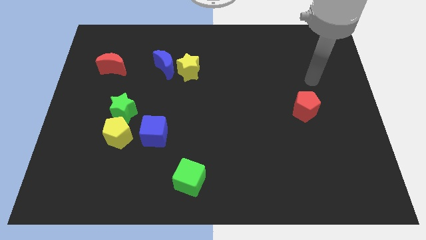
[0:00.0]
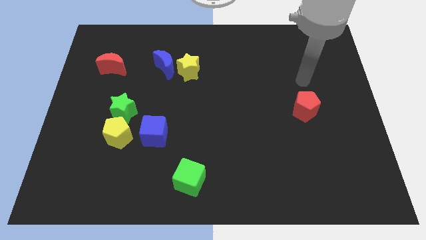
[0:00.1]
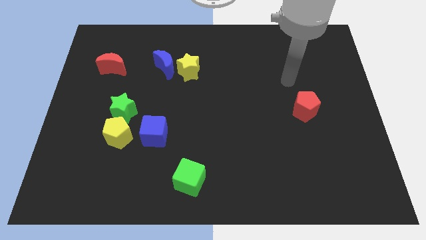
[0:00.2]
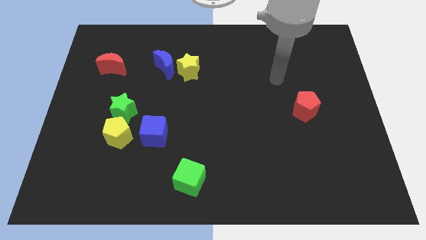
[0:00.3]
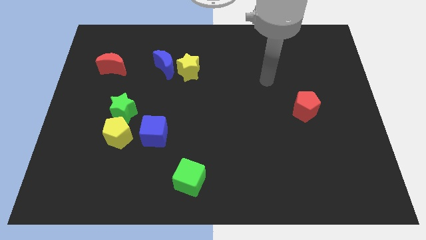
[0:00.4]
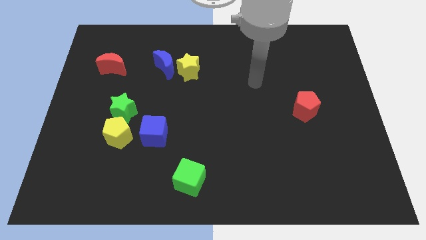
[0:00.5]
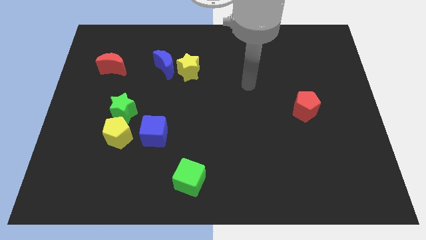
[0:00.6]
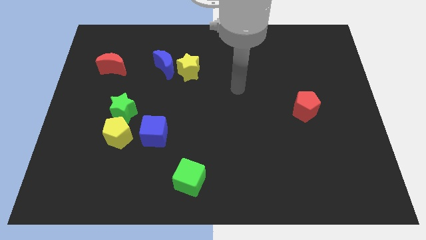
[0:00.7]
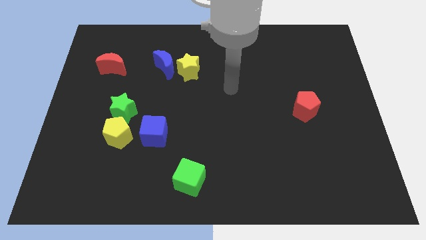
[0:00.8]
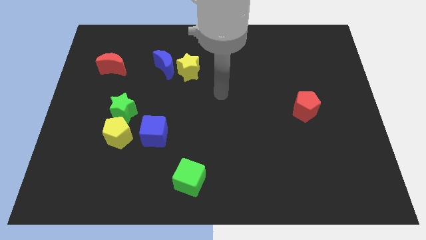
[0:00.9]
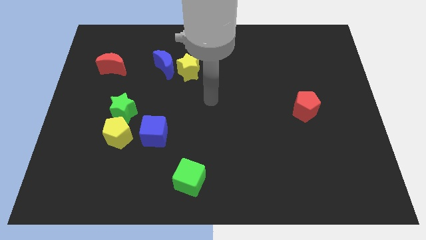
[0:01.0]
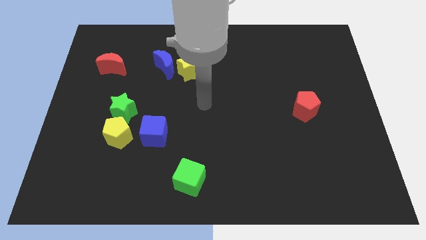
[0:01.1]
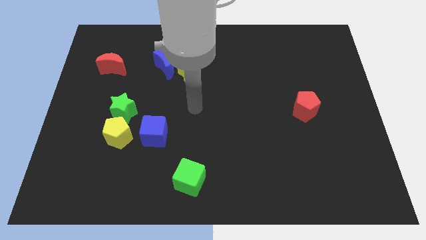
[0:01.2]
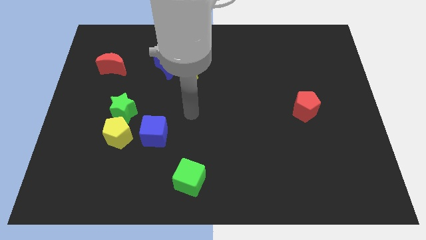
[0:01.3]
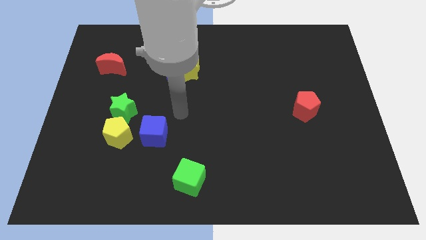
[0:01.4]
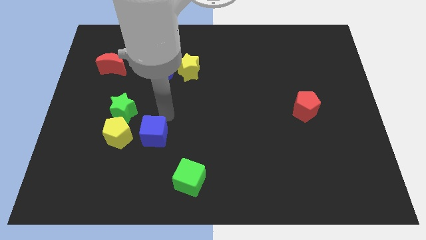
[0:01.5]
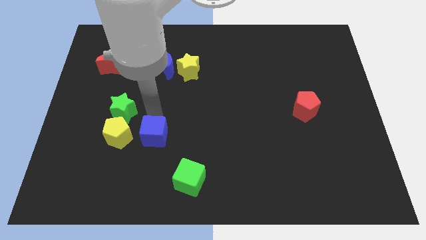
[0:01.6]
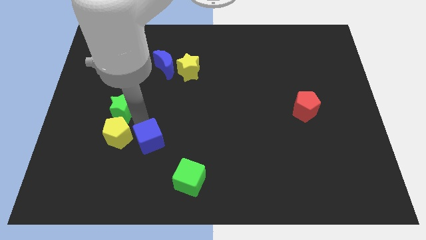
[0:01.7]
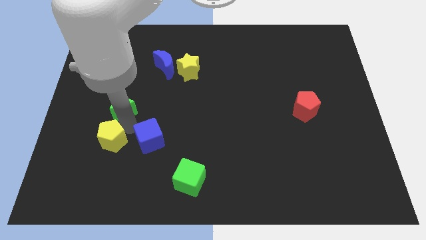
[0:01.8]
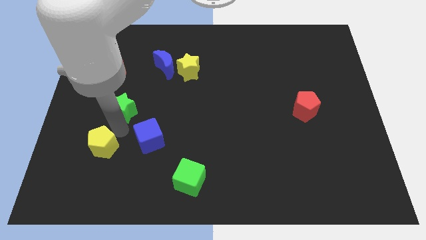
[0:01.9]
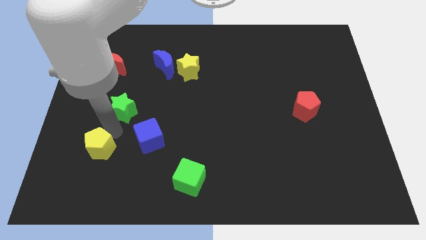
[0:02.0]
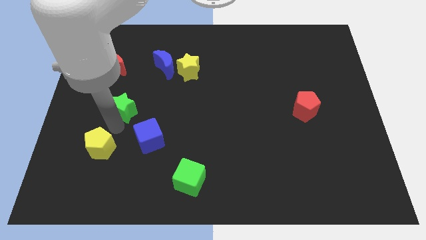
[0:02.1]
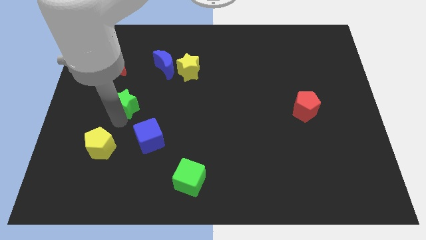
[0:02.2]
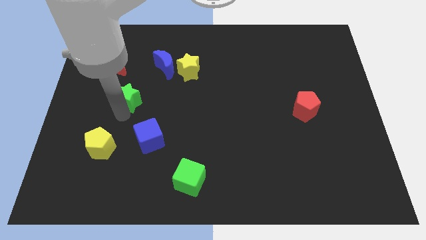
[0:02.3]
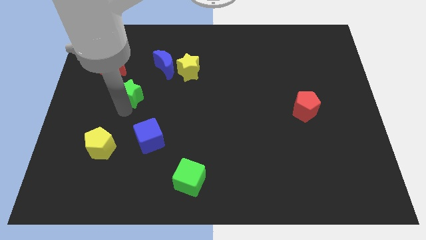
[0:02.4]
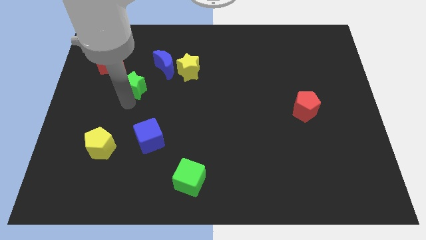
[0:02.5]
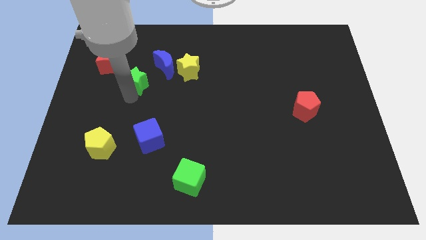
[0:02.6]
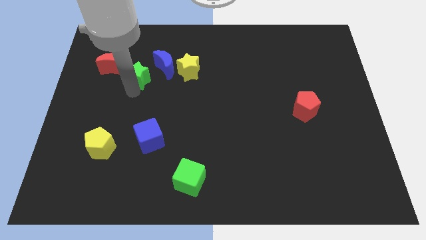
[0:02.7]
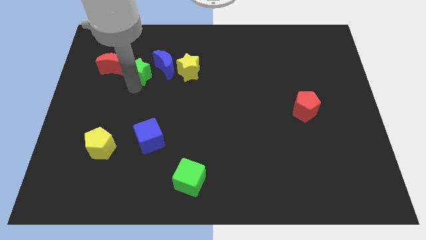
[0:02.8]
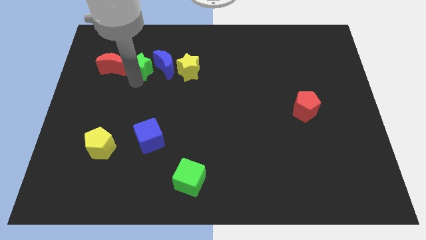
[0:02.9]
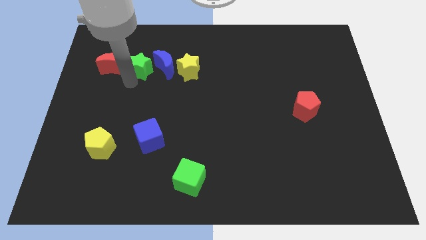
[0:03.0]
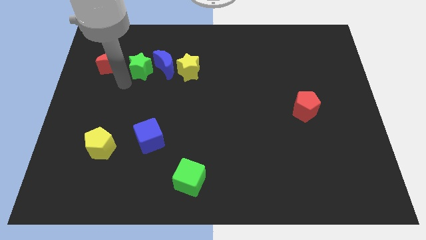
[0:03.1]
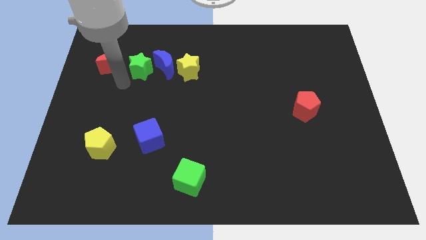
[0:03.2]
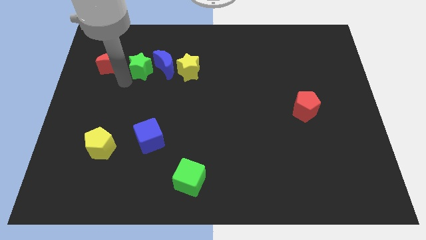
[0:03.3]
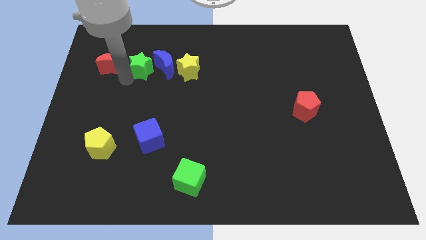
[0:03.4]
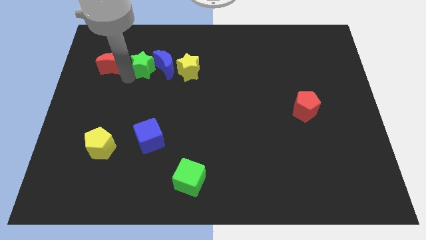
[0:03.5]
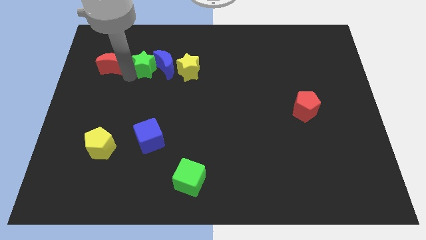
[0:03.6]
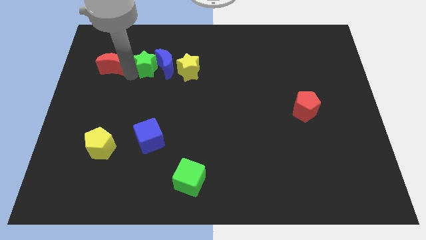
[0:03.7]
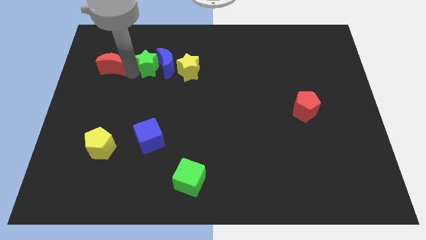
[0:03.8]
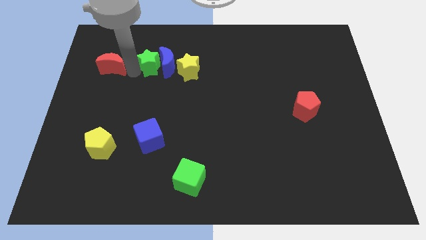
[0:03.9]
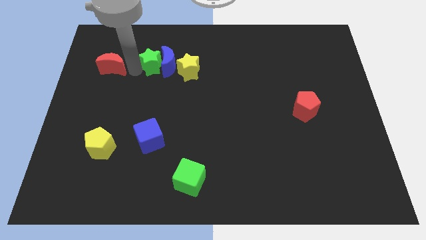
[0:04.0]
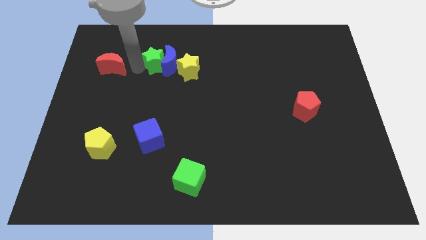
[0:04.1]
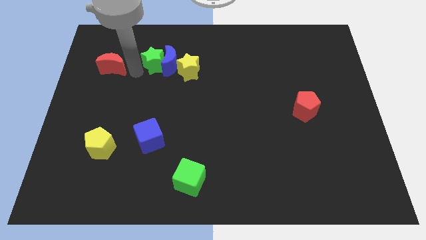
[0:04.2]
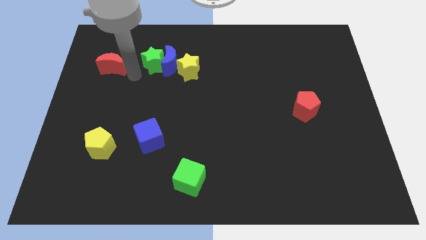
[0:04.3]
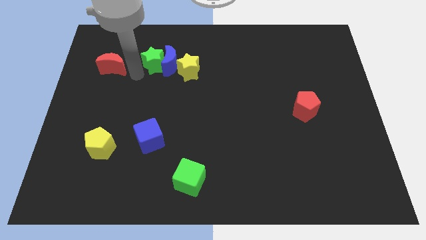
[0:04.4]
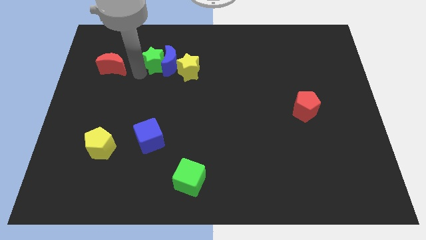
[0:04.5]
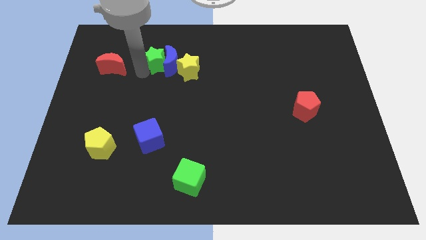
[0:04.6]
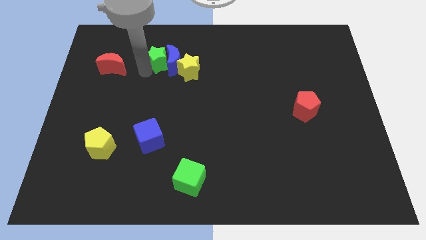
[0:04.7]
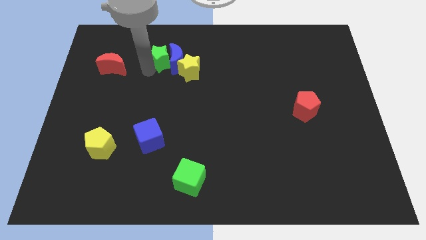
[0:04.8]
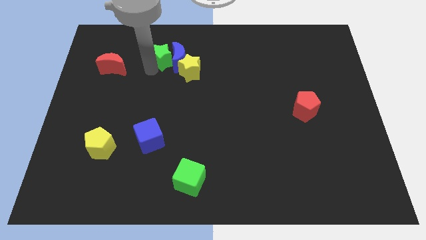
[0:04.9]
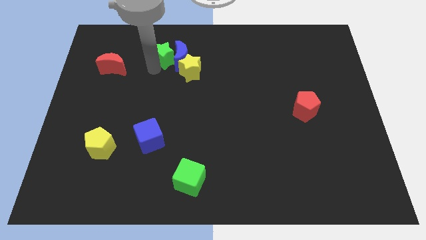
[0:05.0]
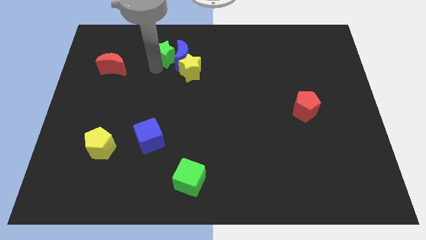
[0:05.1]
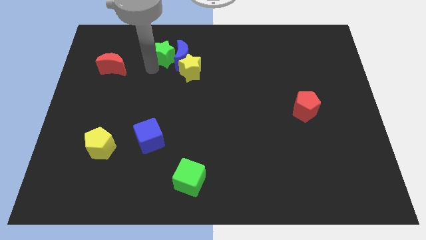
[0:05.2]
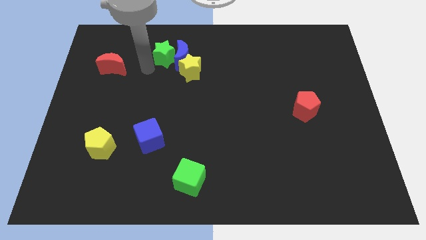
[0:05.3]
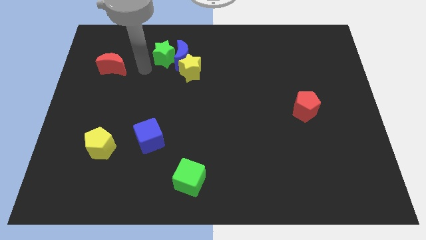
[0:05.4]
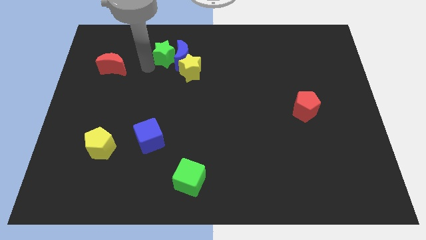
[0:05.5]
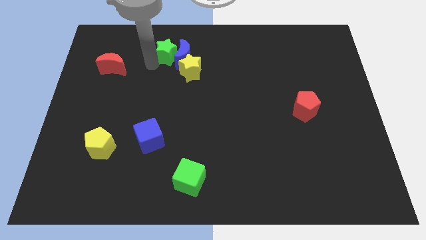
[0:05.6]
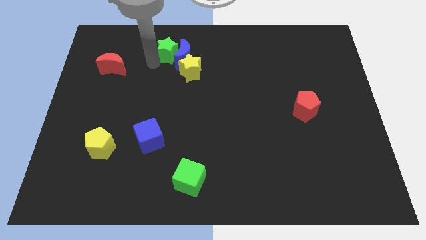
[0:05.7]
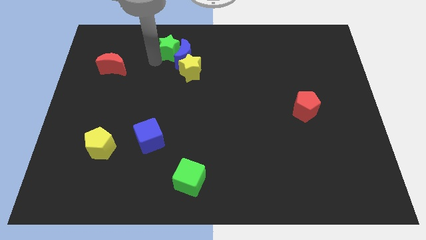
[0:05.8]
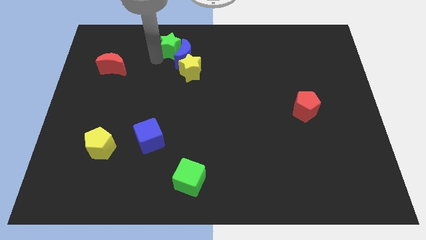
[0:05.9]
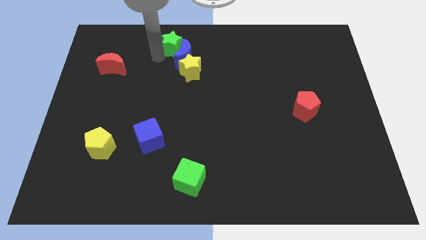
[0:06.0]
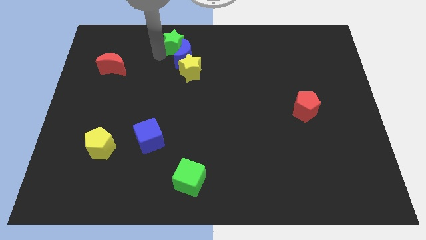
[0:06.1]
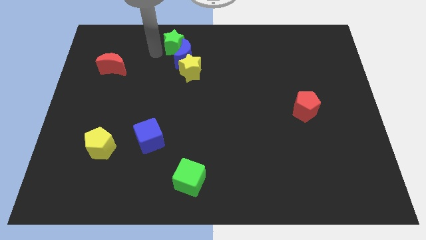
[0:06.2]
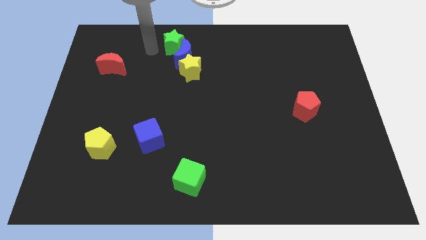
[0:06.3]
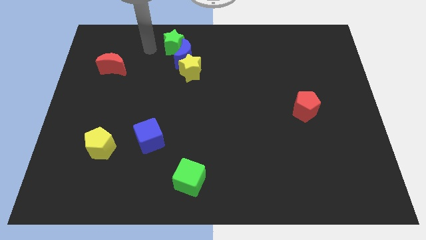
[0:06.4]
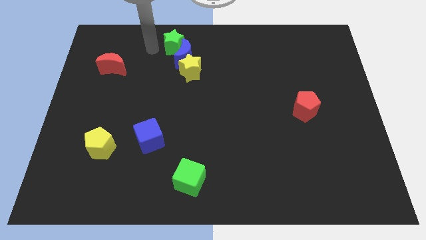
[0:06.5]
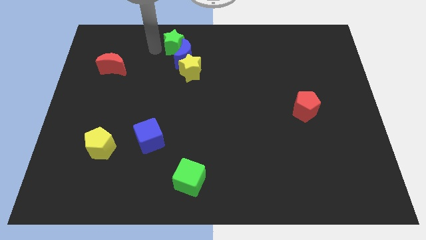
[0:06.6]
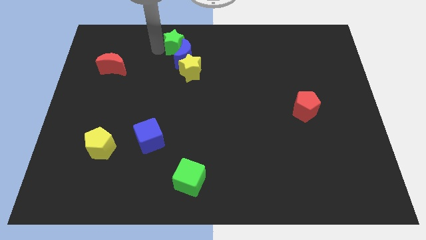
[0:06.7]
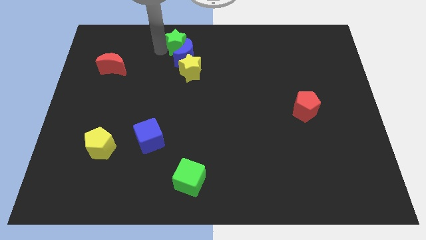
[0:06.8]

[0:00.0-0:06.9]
push the green star to the towards your base

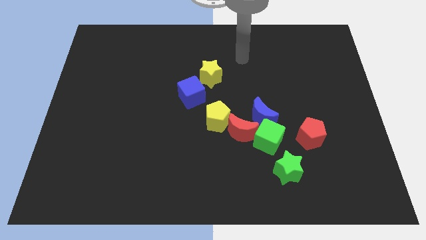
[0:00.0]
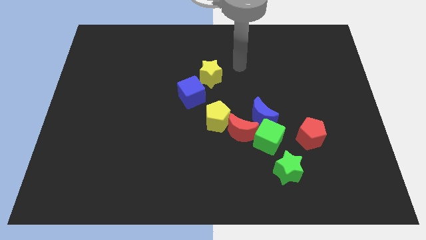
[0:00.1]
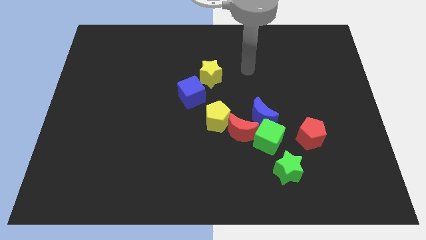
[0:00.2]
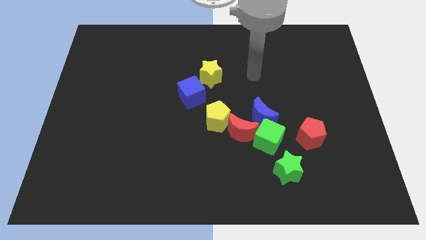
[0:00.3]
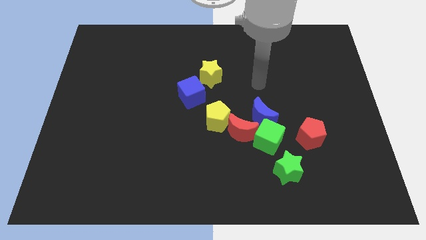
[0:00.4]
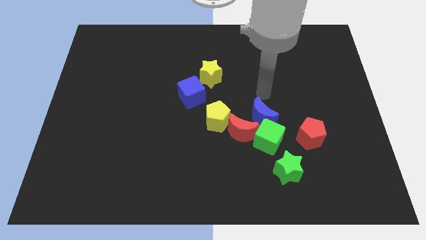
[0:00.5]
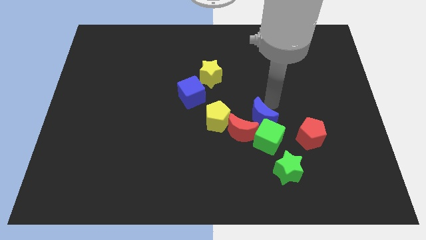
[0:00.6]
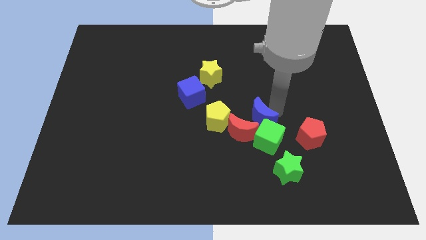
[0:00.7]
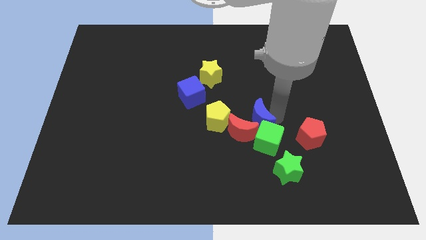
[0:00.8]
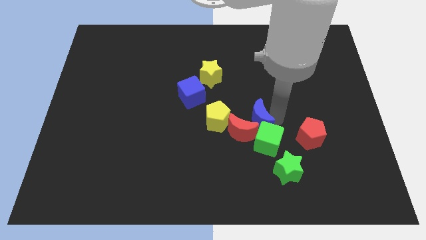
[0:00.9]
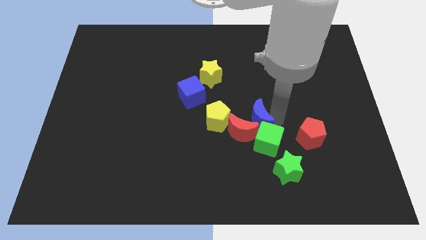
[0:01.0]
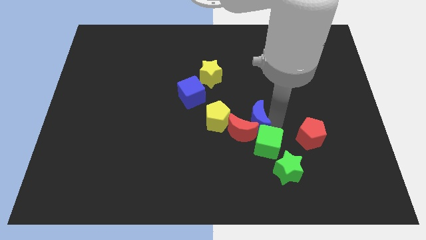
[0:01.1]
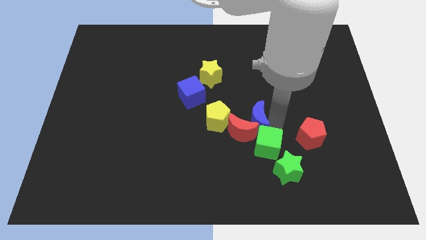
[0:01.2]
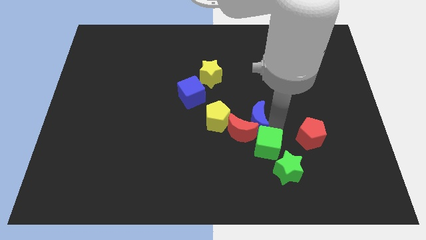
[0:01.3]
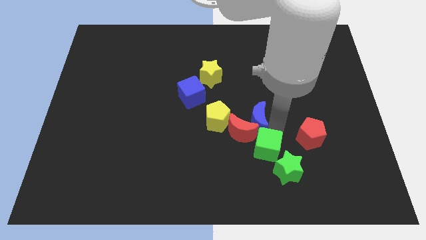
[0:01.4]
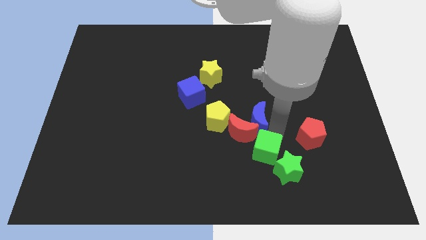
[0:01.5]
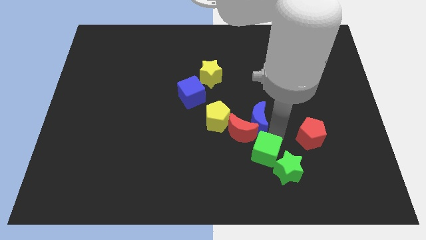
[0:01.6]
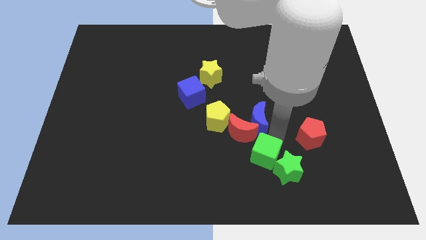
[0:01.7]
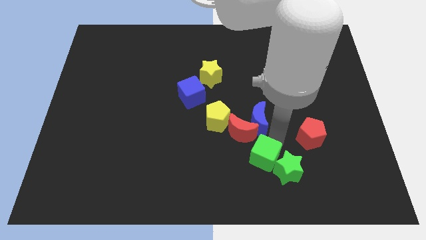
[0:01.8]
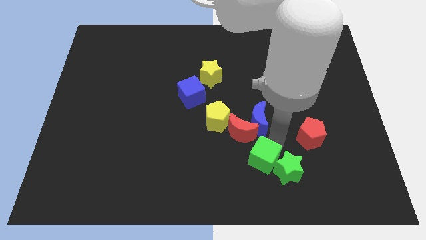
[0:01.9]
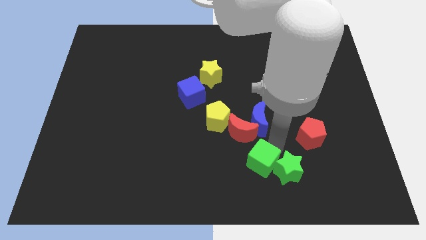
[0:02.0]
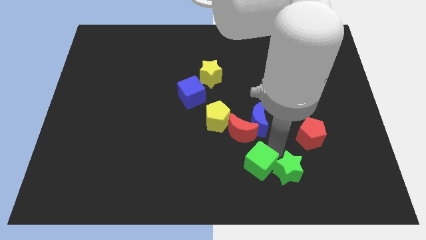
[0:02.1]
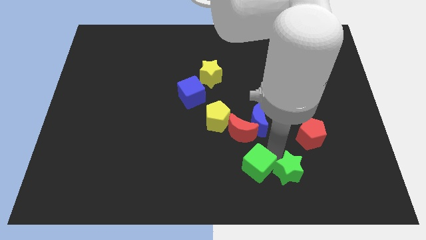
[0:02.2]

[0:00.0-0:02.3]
put the green cube to the bottom side
